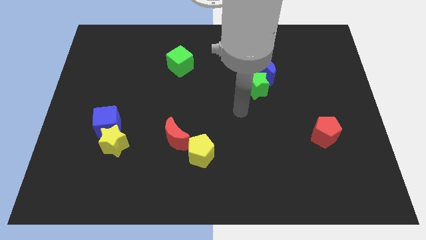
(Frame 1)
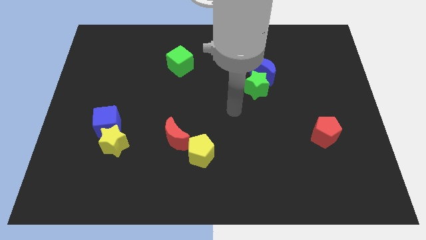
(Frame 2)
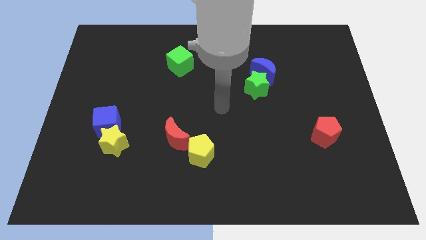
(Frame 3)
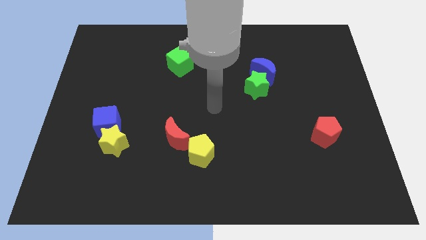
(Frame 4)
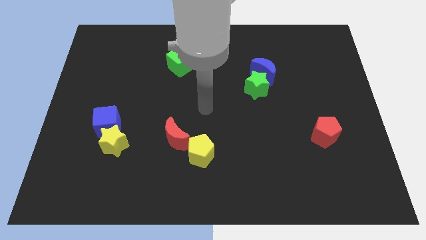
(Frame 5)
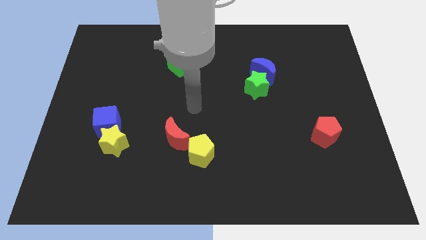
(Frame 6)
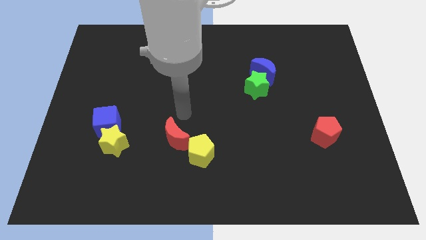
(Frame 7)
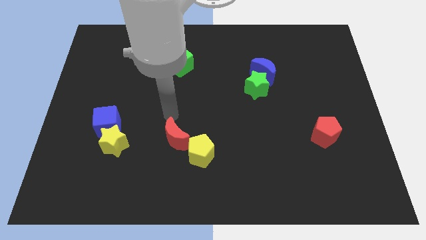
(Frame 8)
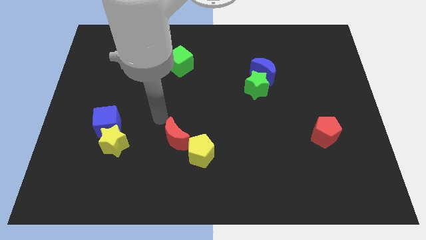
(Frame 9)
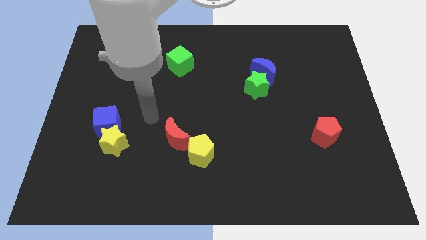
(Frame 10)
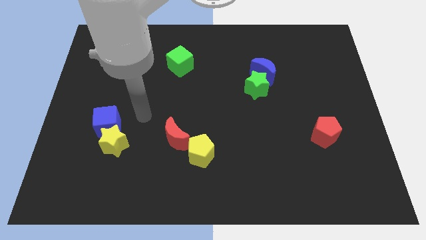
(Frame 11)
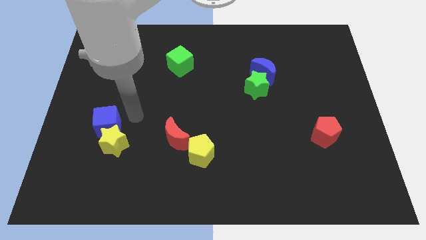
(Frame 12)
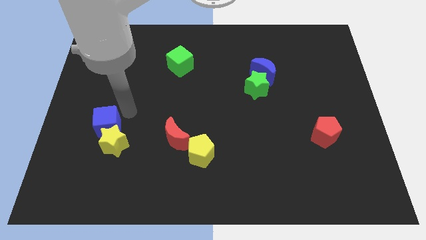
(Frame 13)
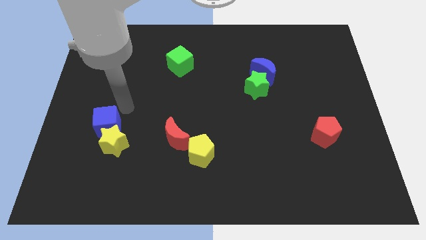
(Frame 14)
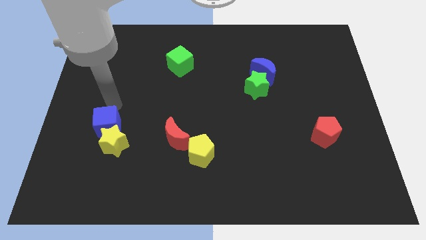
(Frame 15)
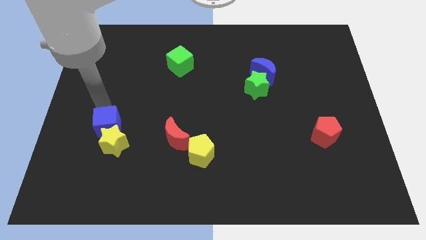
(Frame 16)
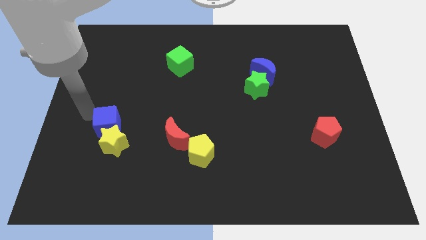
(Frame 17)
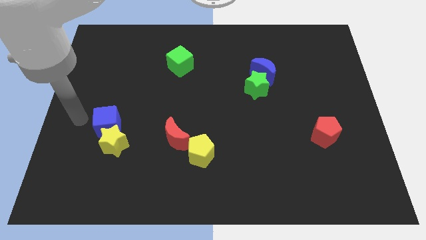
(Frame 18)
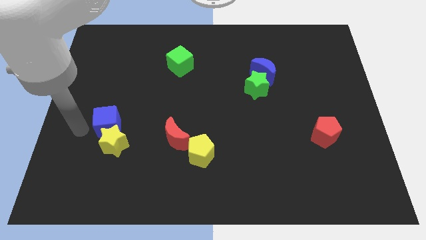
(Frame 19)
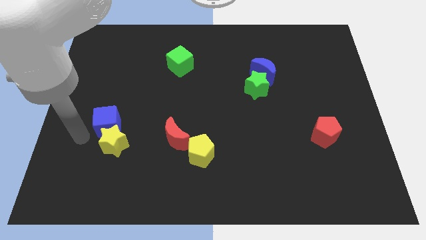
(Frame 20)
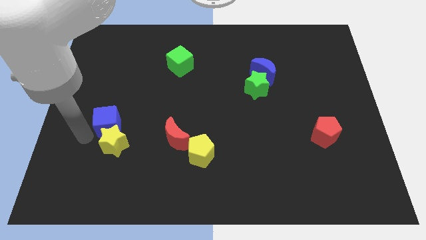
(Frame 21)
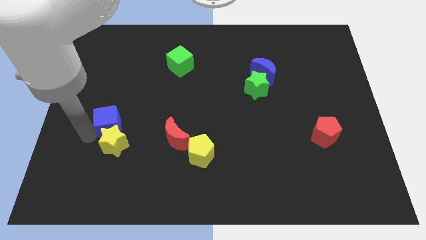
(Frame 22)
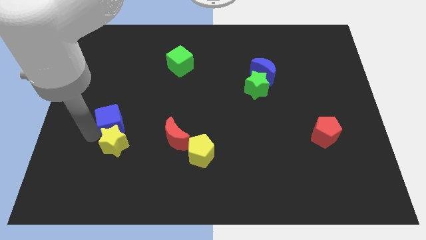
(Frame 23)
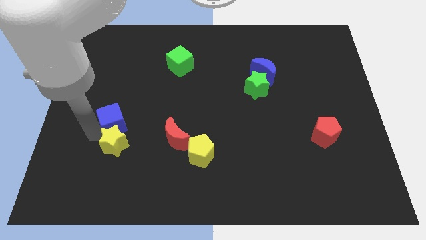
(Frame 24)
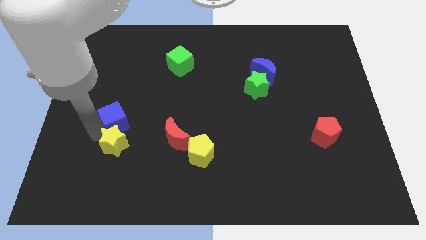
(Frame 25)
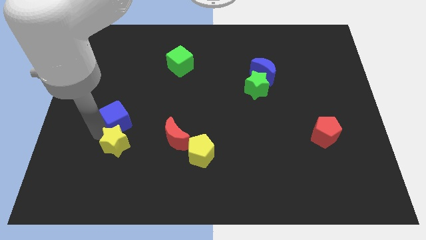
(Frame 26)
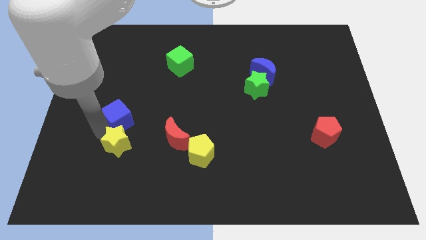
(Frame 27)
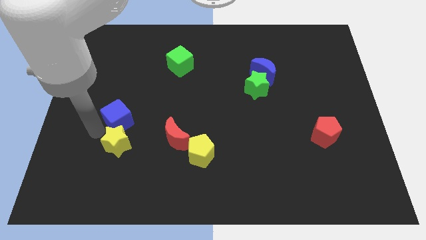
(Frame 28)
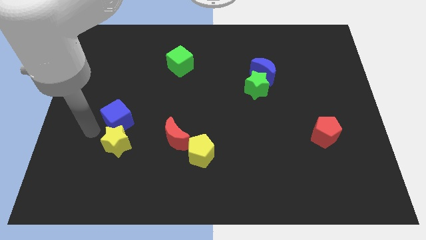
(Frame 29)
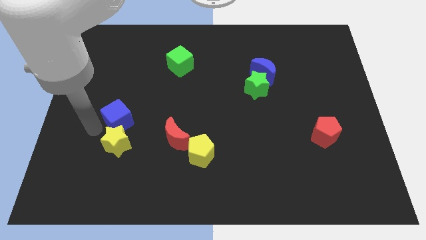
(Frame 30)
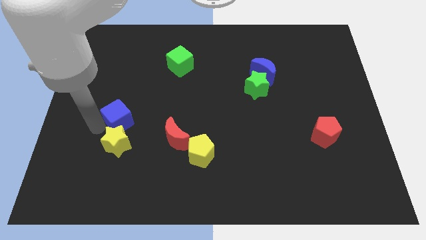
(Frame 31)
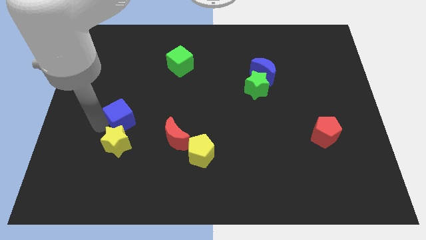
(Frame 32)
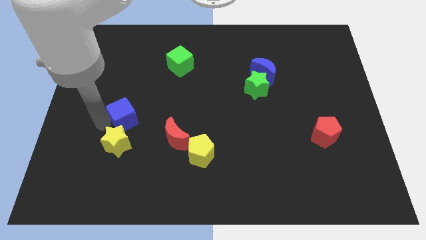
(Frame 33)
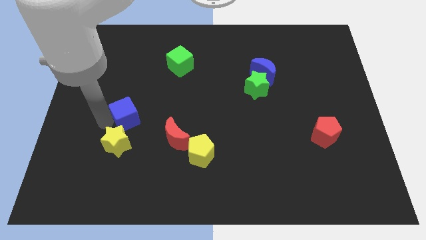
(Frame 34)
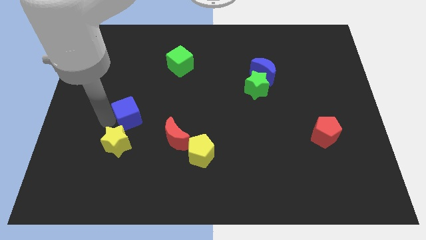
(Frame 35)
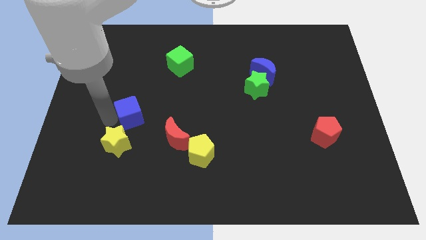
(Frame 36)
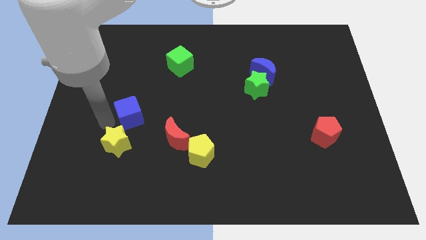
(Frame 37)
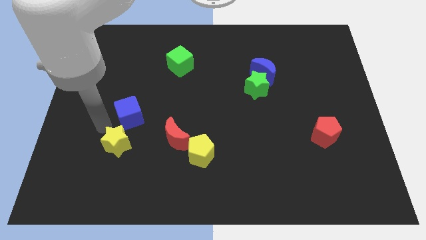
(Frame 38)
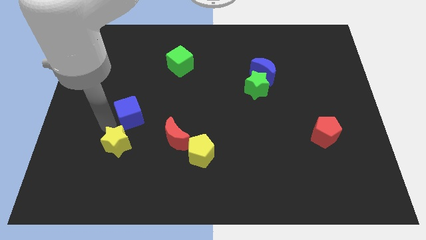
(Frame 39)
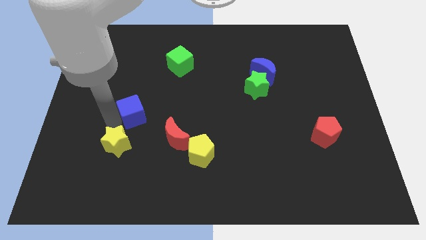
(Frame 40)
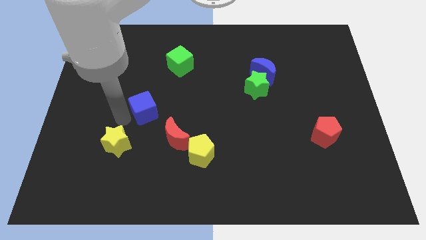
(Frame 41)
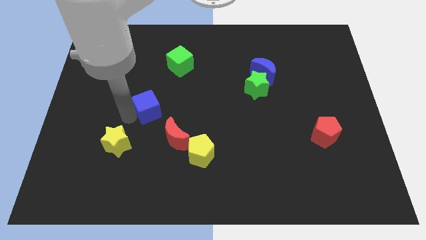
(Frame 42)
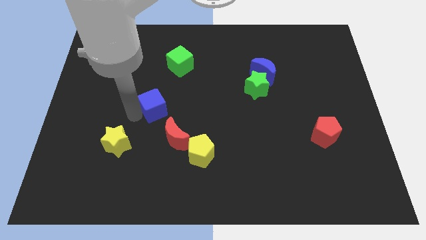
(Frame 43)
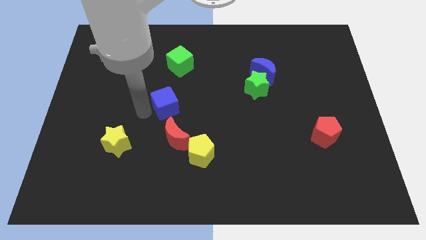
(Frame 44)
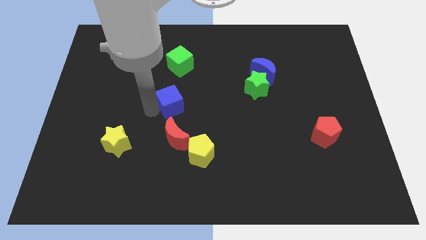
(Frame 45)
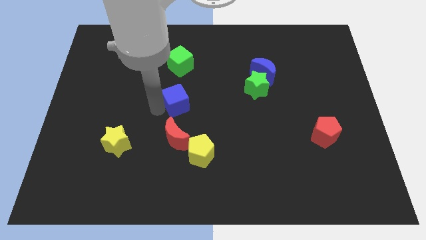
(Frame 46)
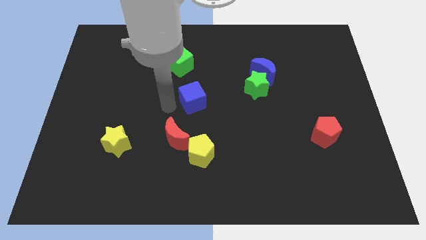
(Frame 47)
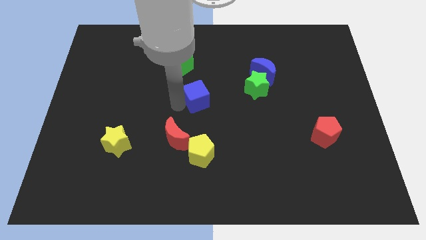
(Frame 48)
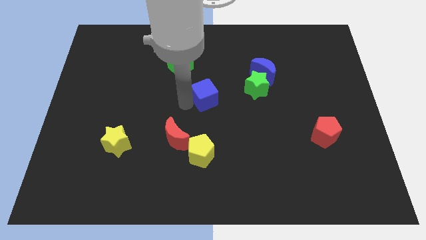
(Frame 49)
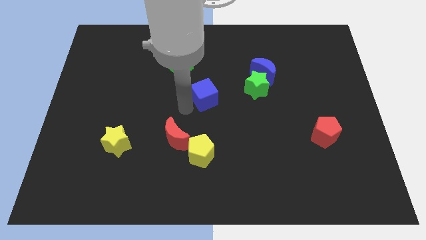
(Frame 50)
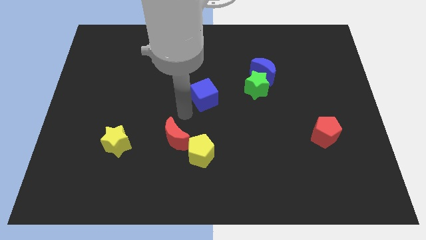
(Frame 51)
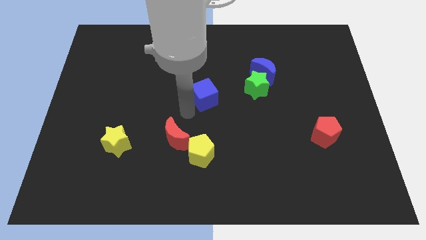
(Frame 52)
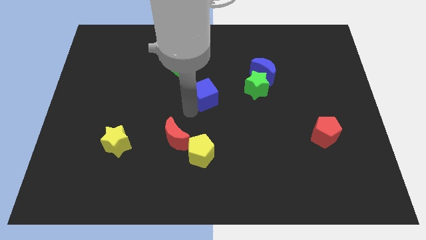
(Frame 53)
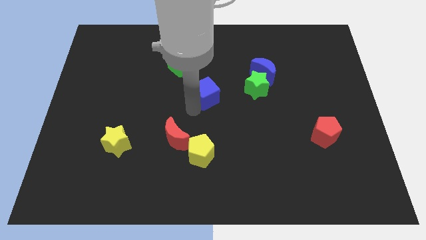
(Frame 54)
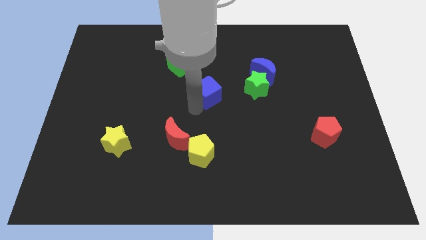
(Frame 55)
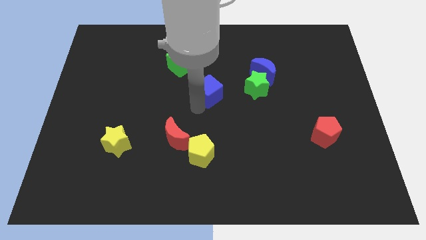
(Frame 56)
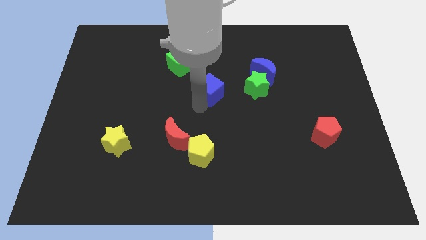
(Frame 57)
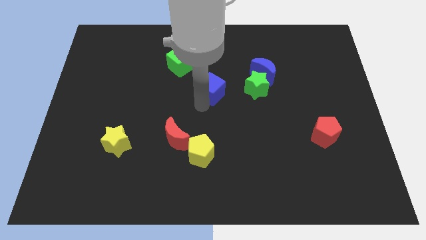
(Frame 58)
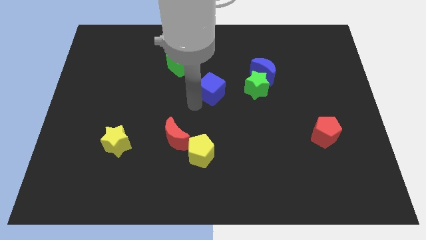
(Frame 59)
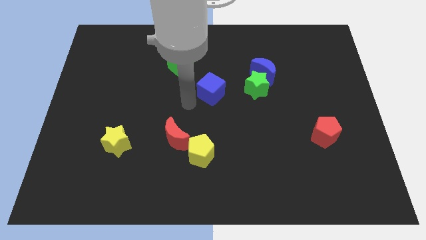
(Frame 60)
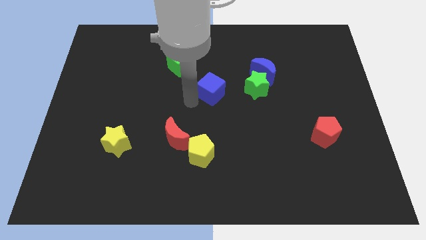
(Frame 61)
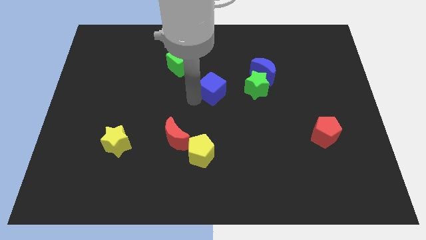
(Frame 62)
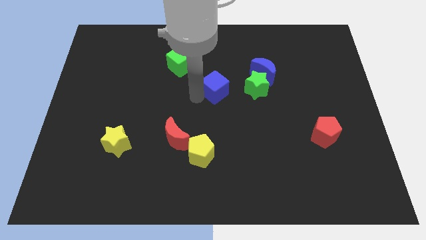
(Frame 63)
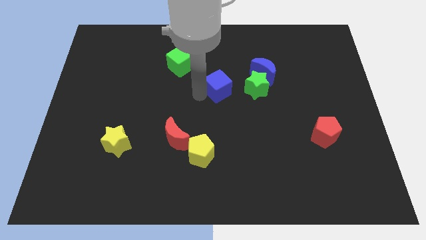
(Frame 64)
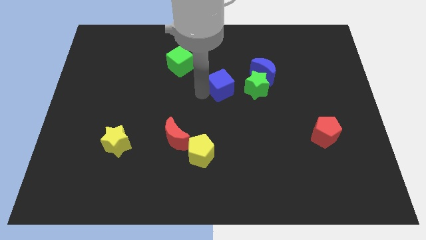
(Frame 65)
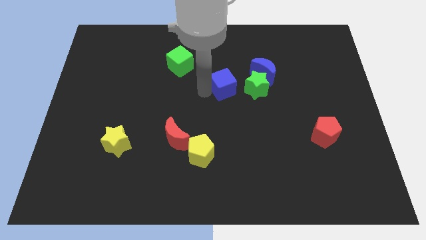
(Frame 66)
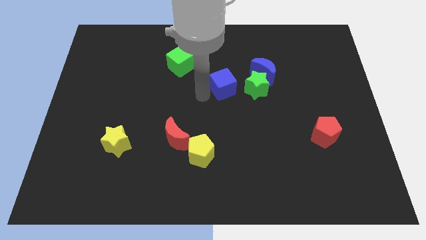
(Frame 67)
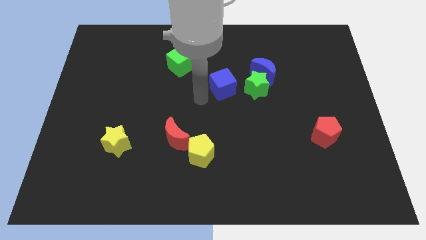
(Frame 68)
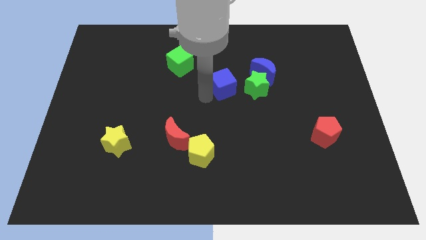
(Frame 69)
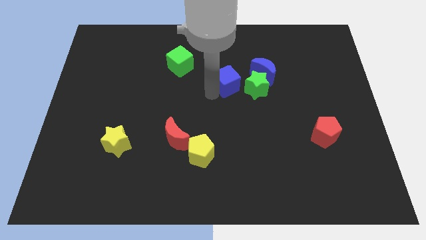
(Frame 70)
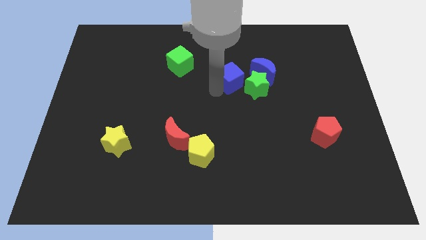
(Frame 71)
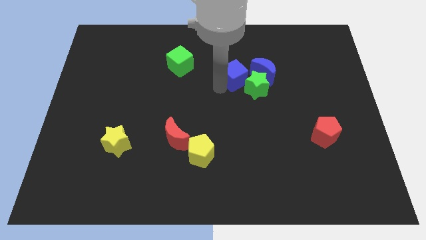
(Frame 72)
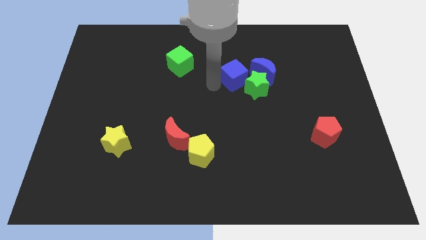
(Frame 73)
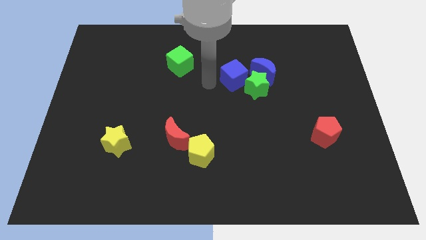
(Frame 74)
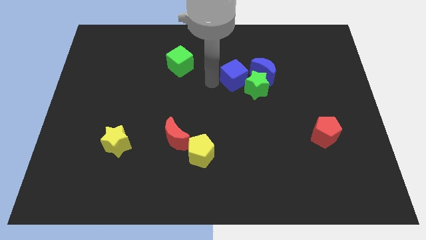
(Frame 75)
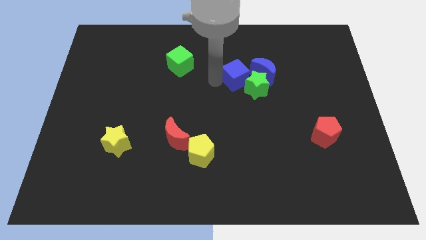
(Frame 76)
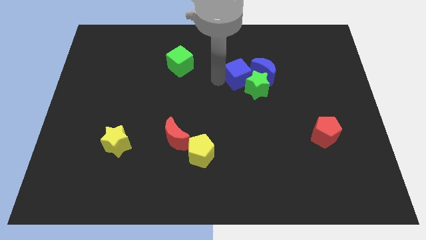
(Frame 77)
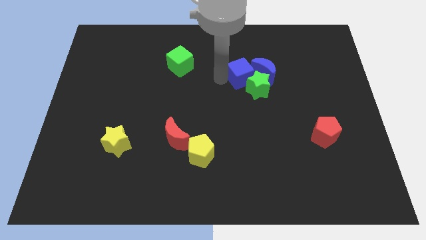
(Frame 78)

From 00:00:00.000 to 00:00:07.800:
move the blue cube close to the blue moon
